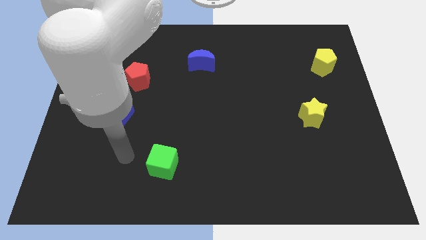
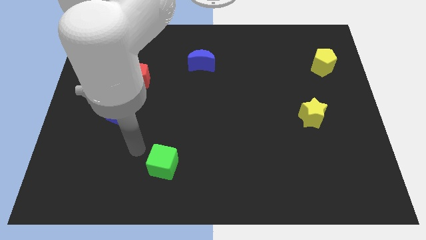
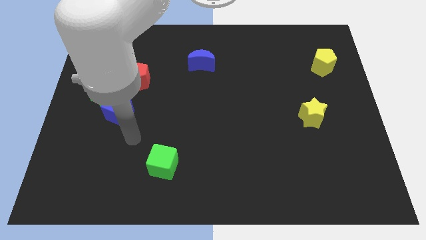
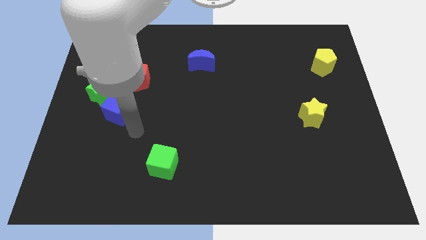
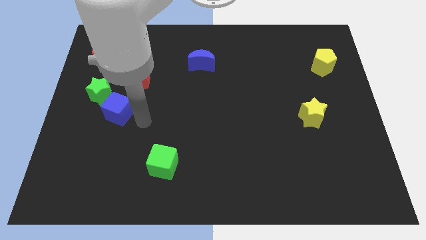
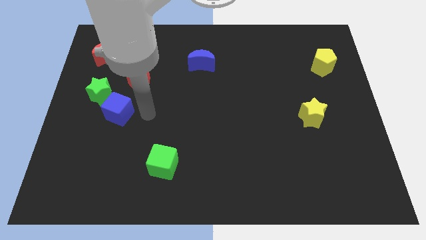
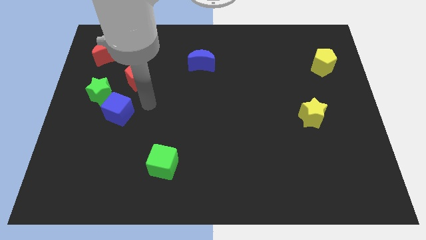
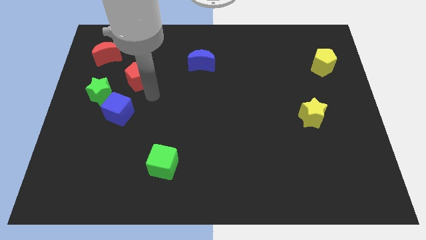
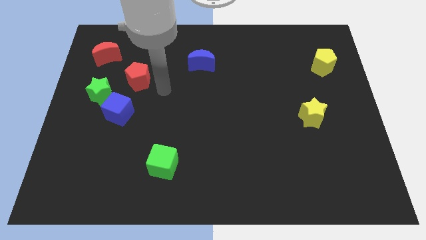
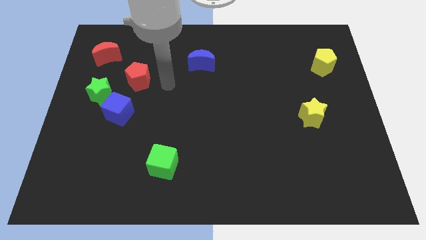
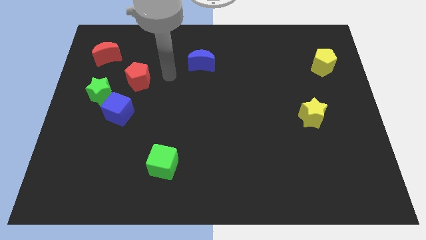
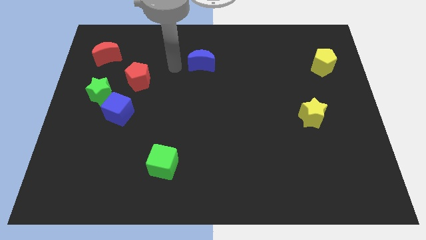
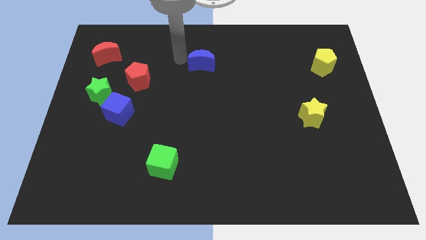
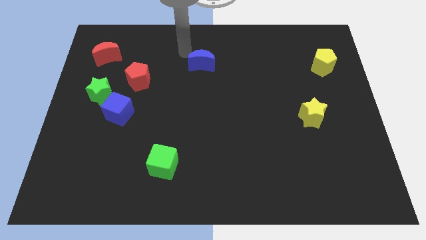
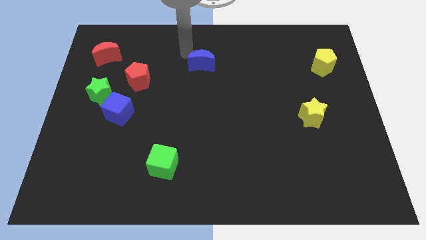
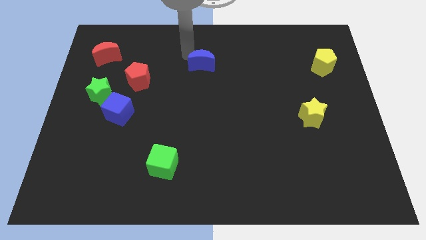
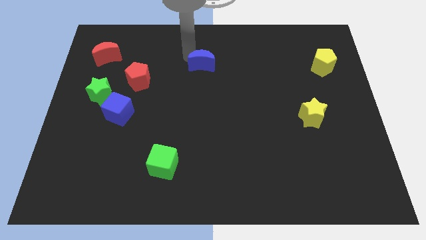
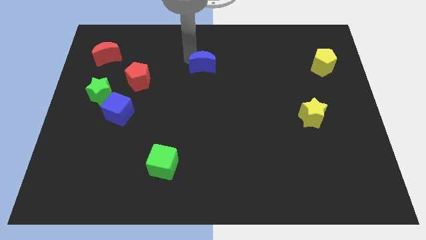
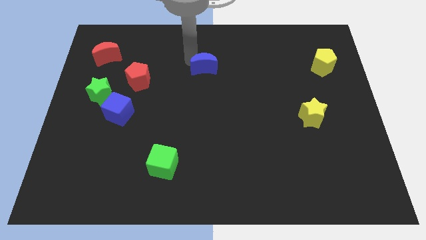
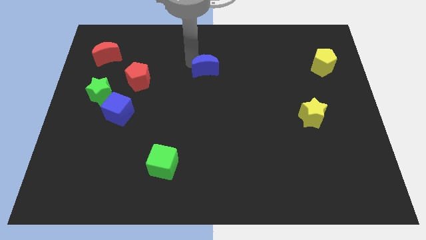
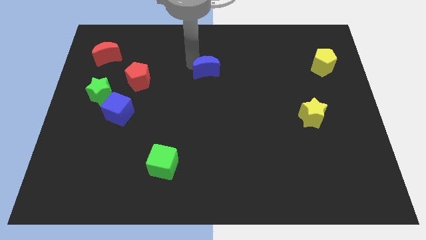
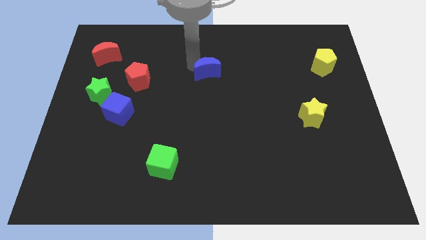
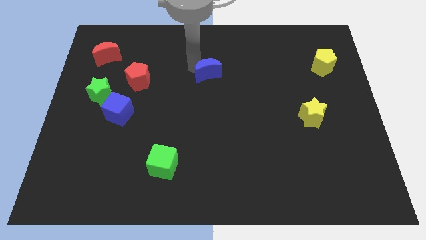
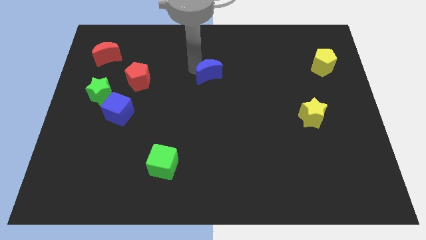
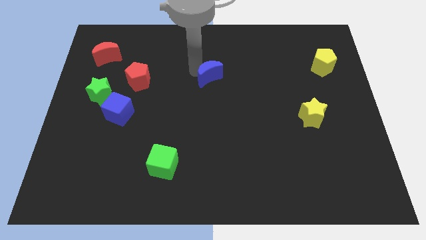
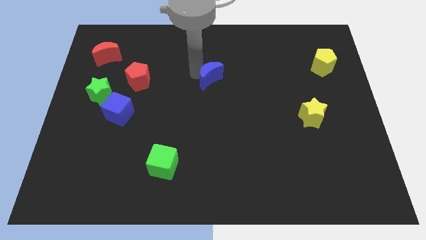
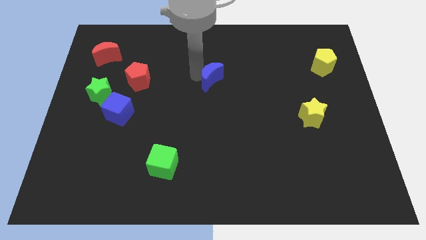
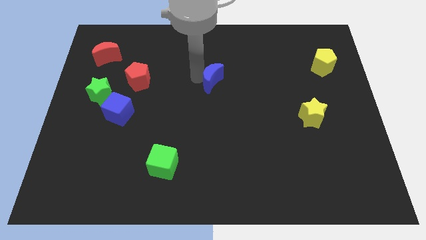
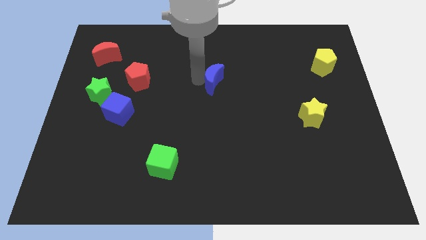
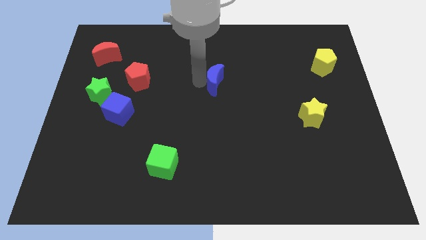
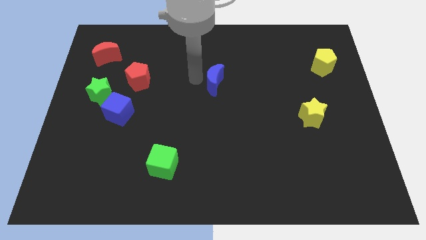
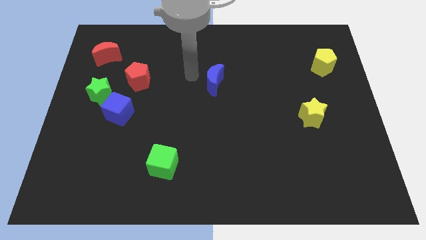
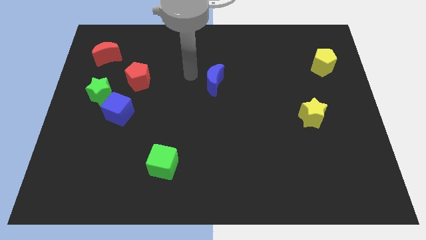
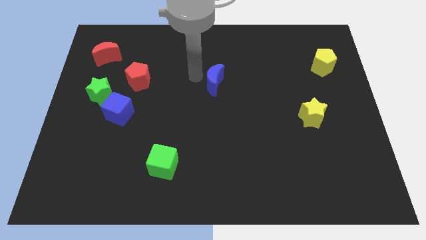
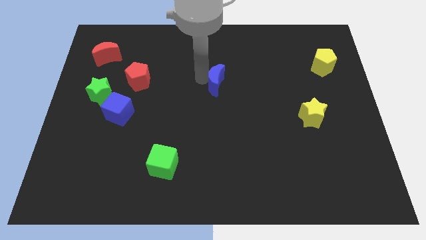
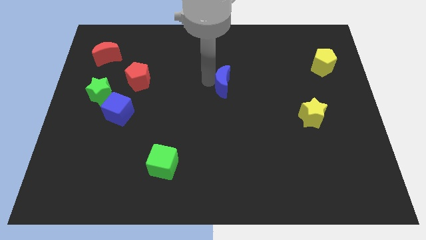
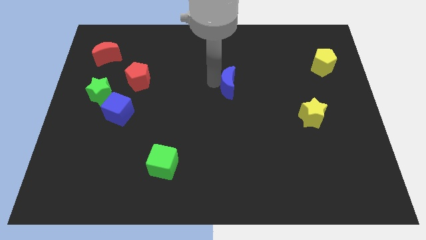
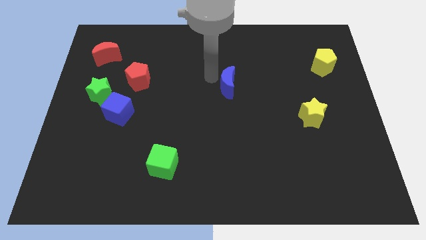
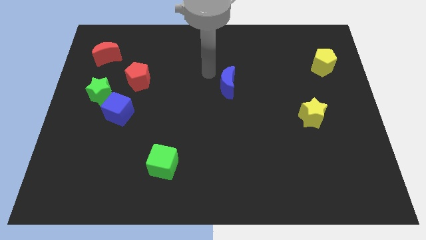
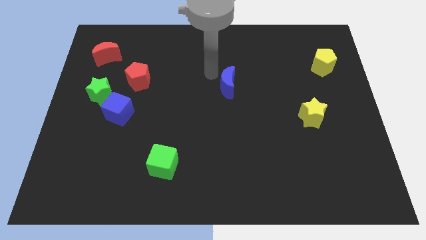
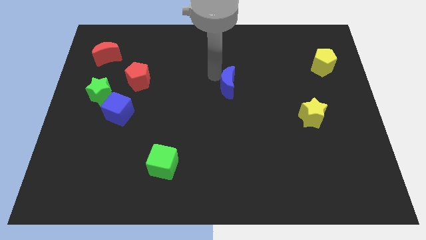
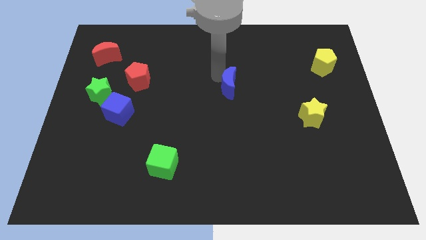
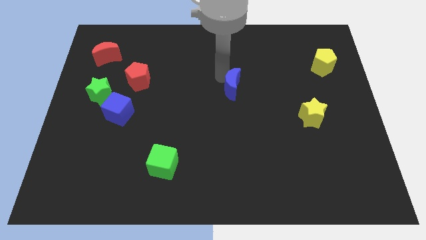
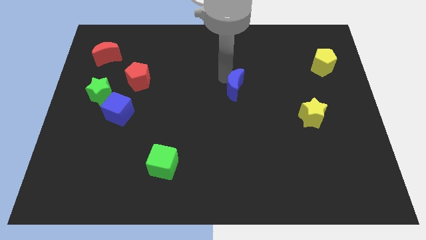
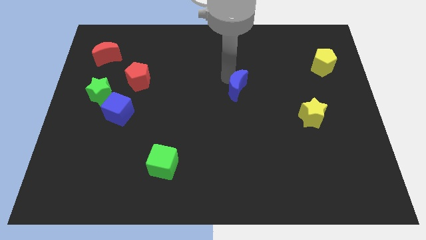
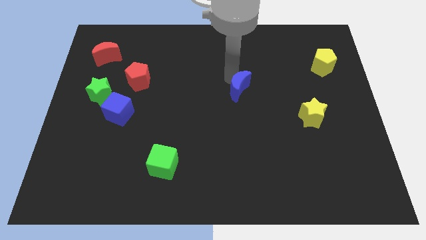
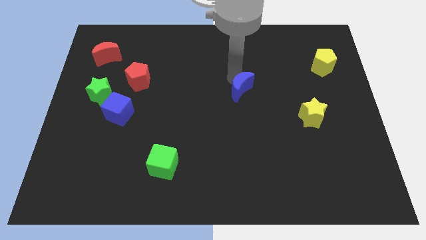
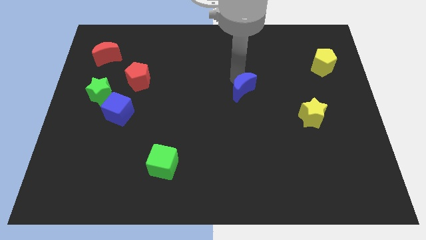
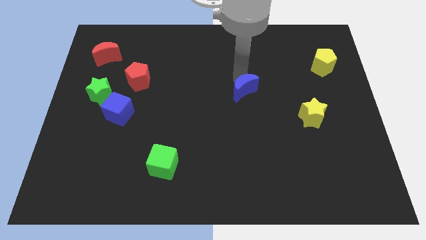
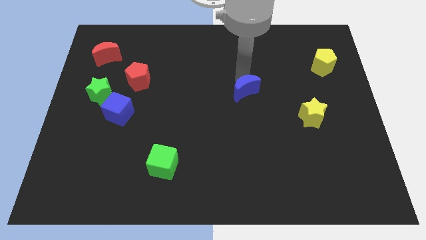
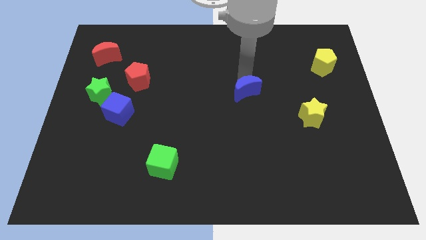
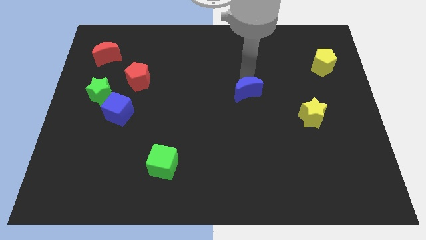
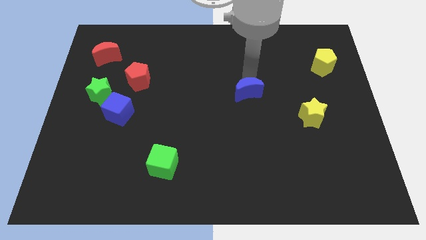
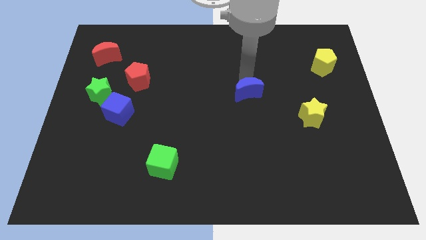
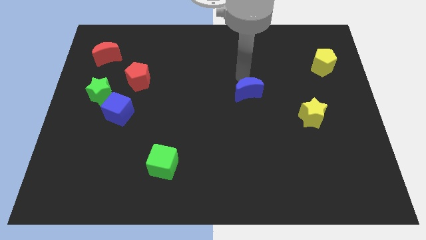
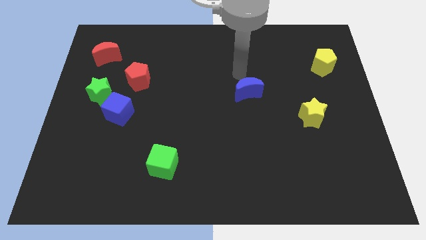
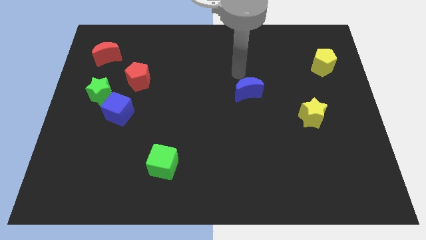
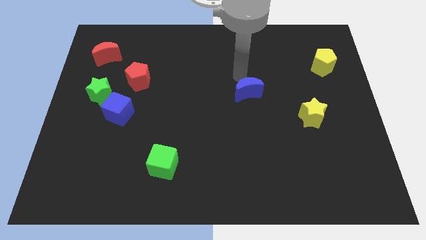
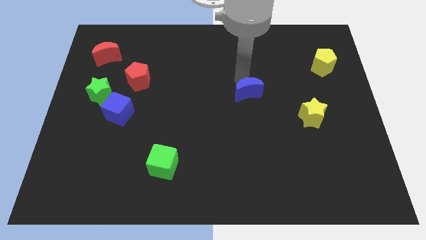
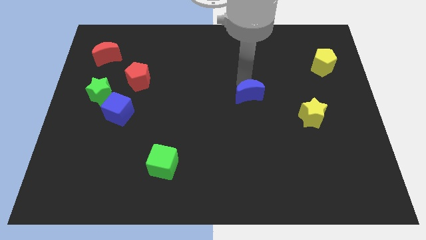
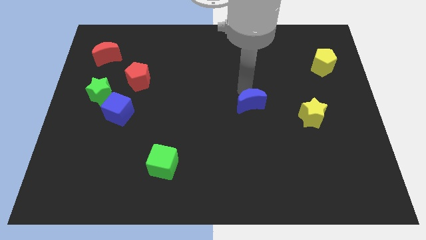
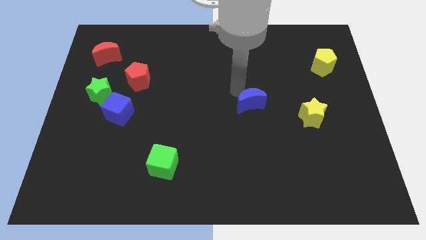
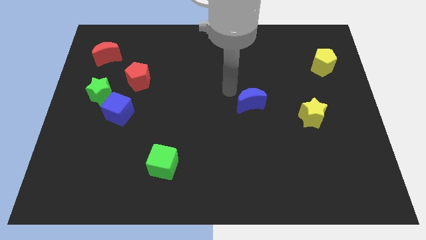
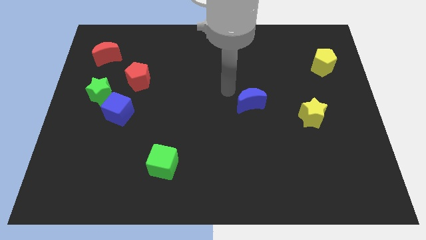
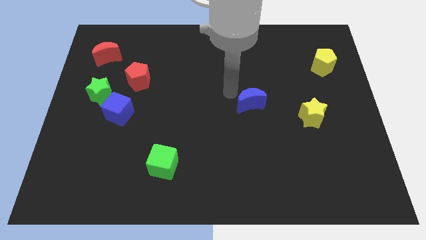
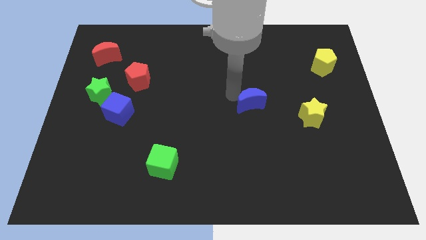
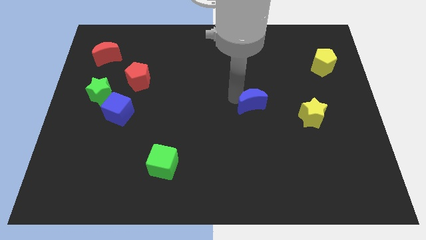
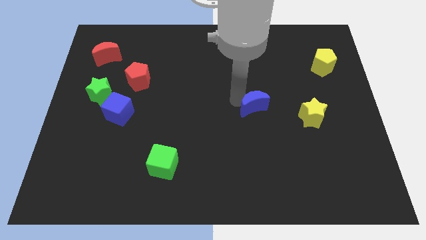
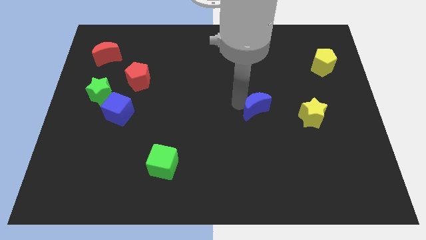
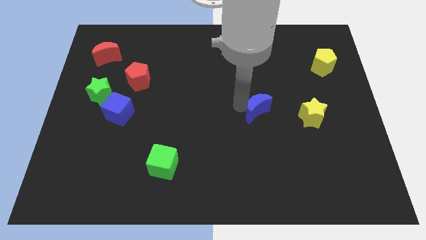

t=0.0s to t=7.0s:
move the blue moon downwards and then to the right

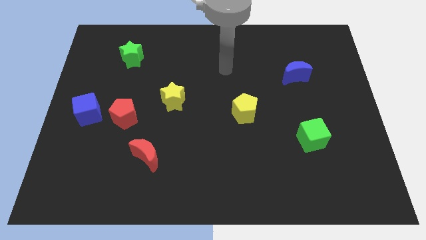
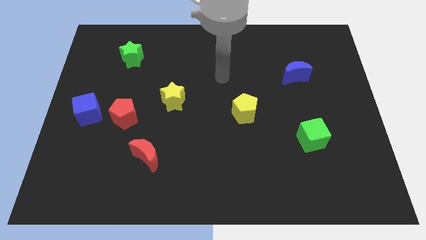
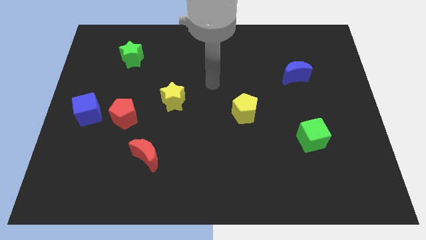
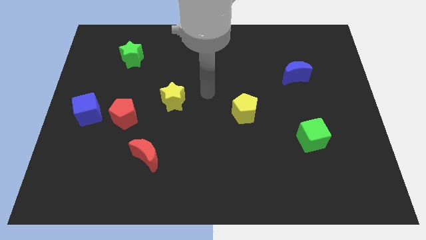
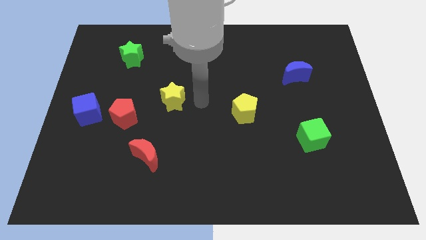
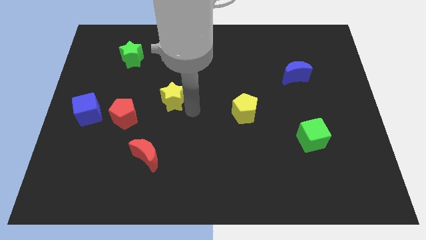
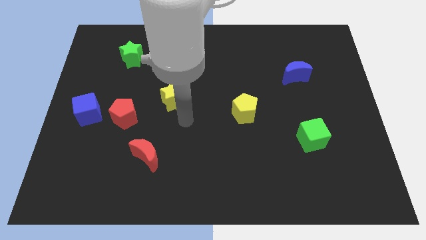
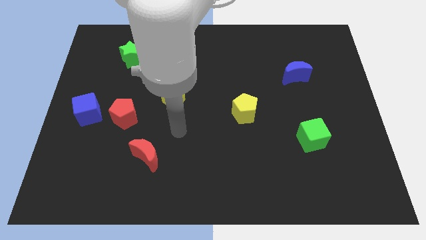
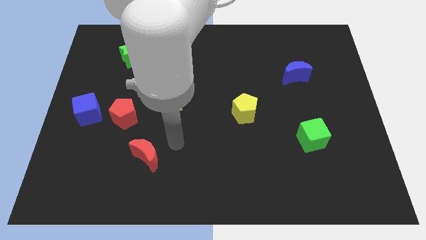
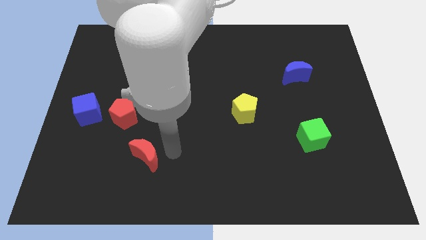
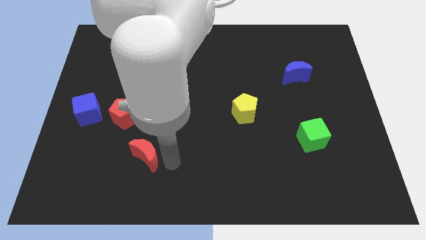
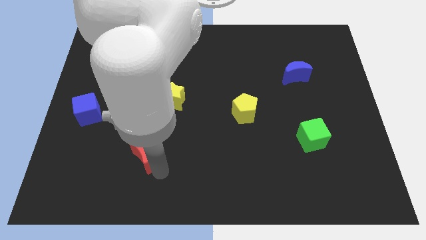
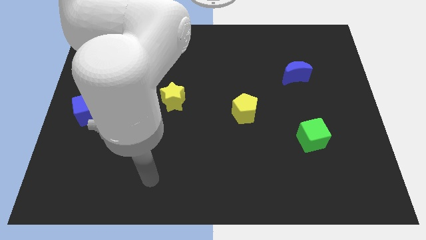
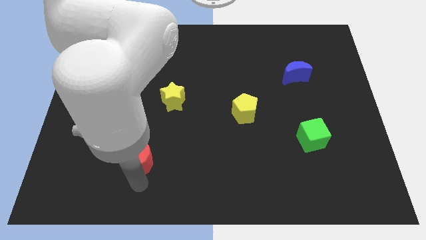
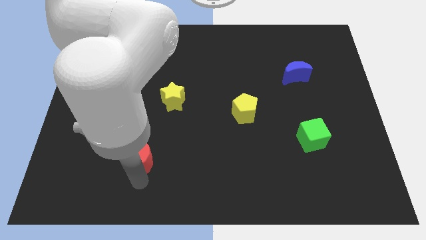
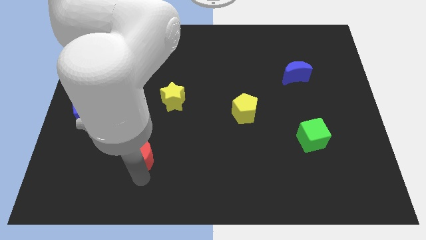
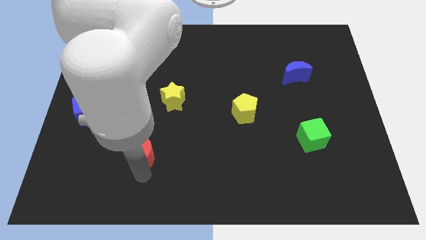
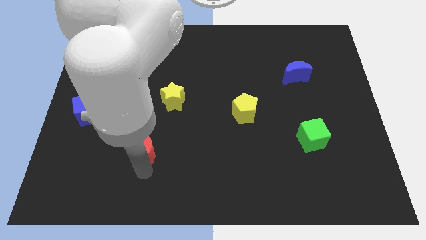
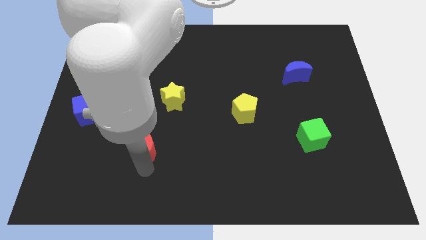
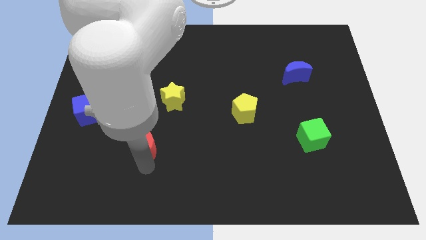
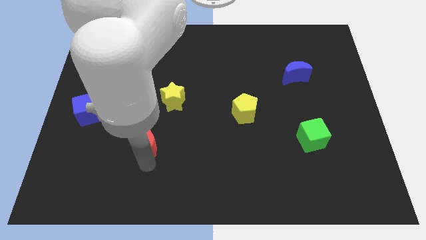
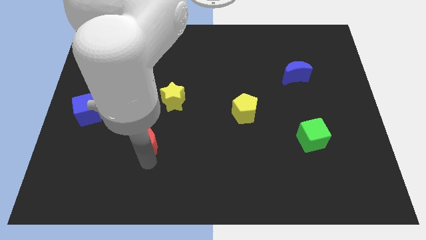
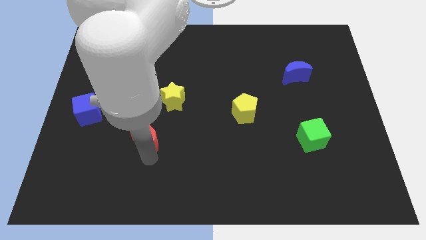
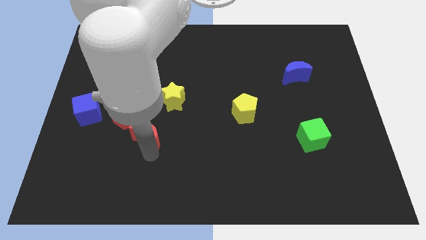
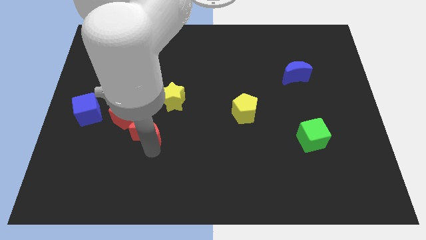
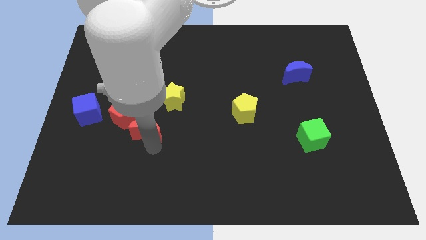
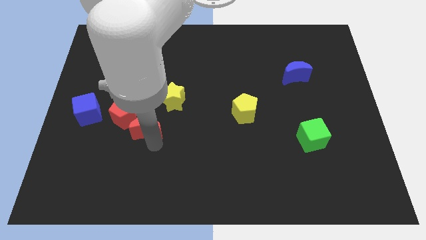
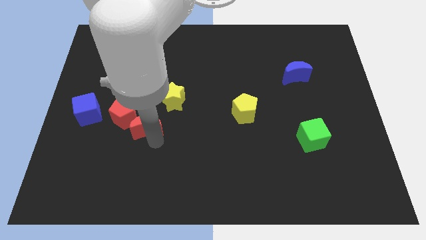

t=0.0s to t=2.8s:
slide the red moon upwards a little
